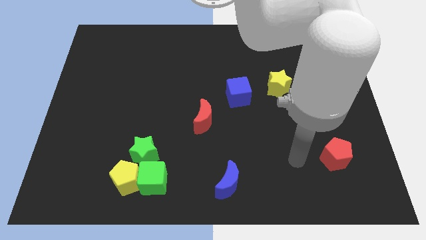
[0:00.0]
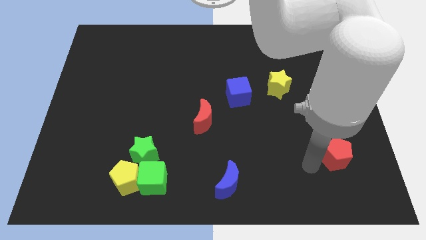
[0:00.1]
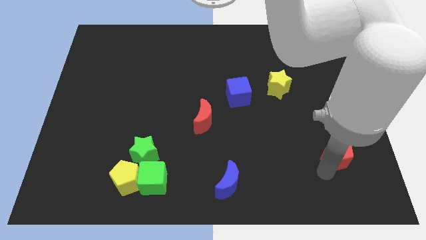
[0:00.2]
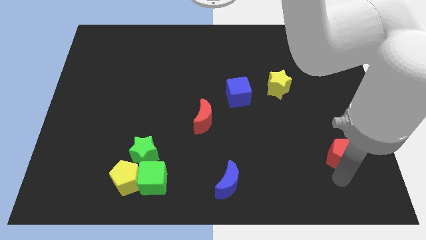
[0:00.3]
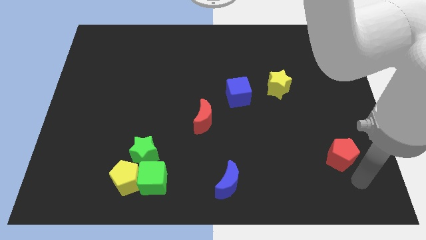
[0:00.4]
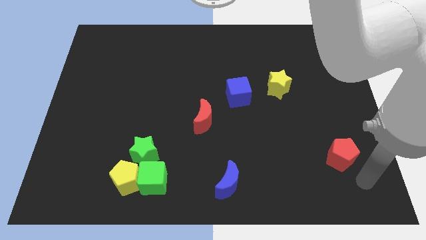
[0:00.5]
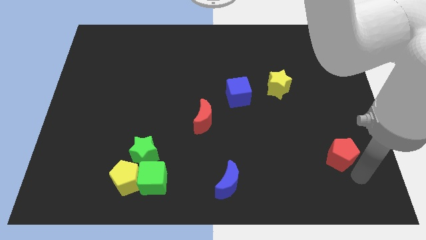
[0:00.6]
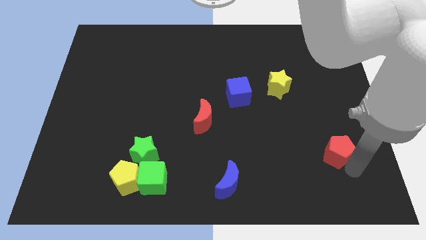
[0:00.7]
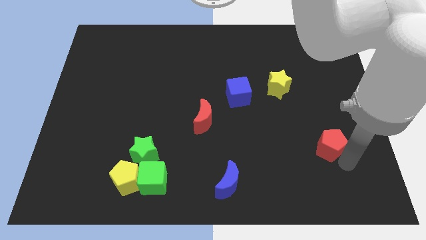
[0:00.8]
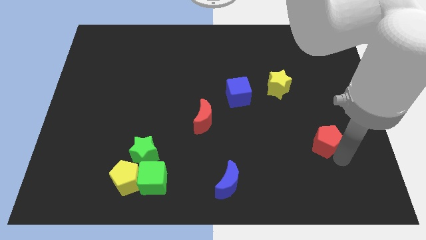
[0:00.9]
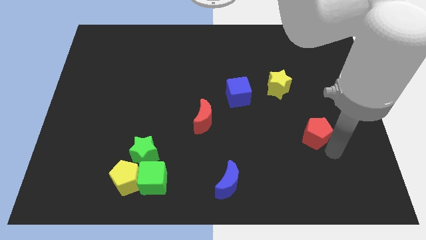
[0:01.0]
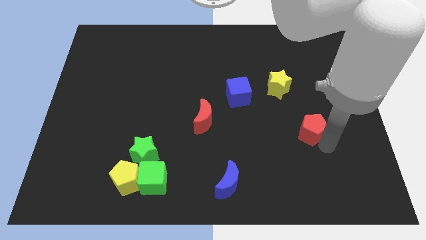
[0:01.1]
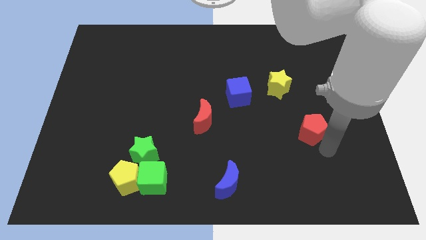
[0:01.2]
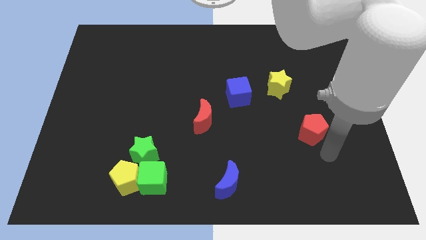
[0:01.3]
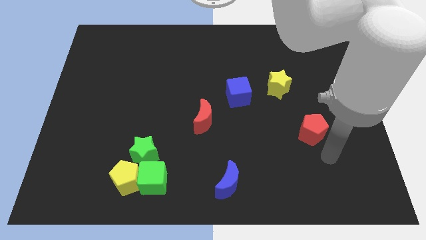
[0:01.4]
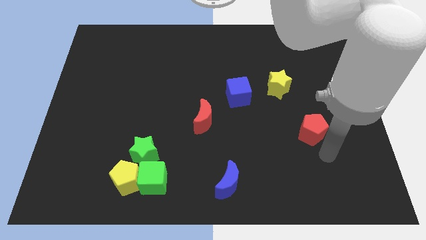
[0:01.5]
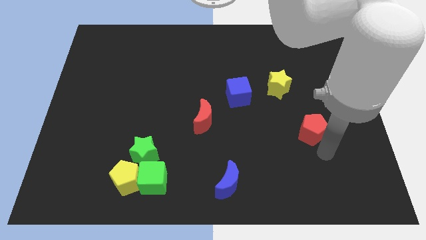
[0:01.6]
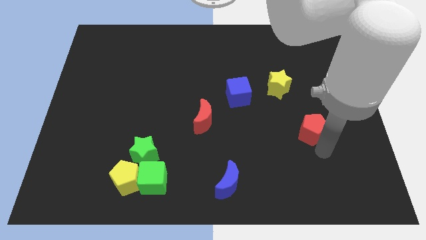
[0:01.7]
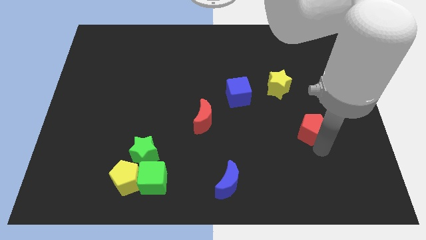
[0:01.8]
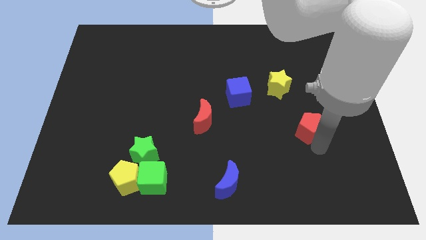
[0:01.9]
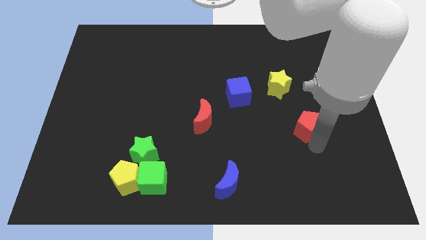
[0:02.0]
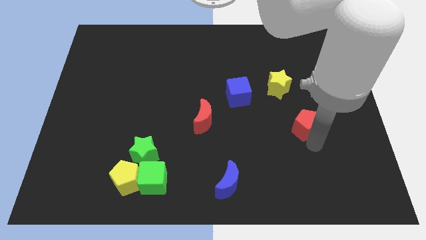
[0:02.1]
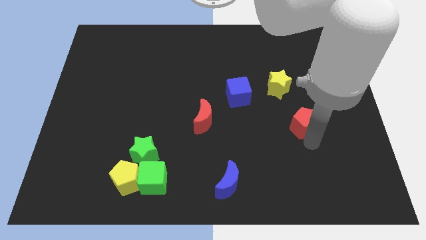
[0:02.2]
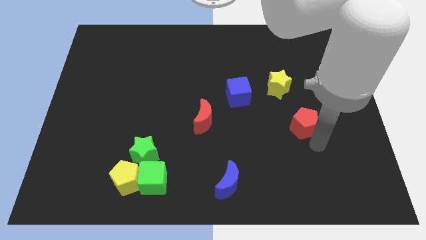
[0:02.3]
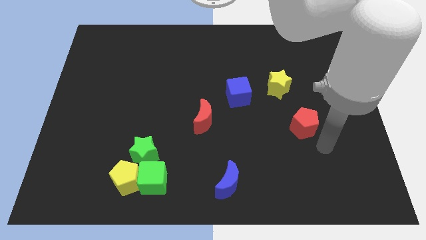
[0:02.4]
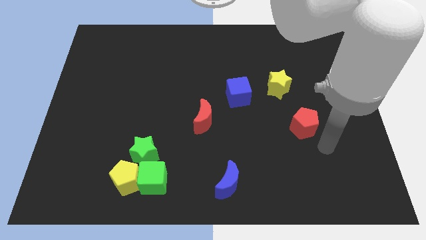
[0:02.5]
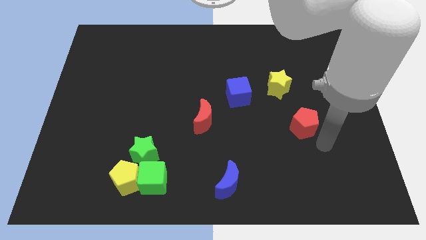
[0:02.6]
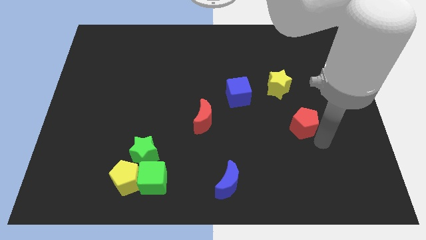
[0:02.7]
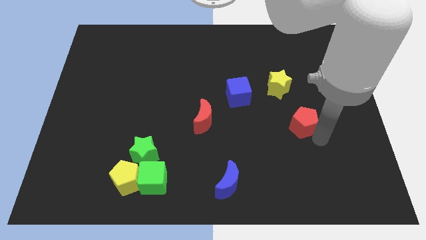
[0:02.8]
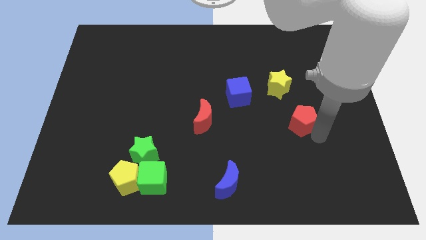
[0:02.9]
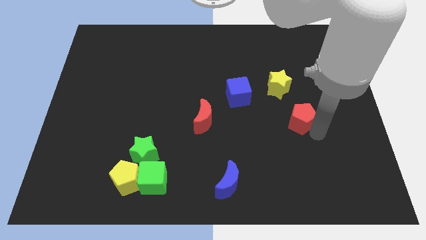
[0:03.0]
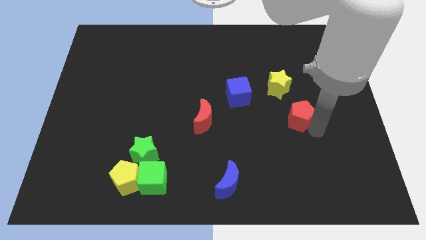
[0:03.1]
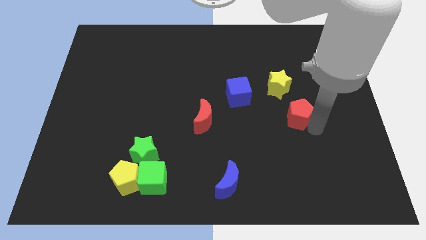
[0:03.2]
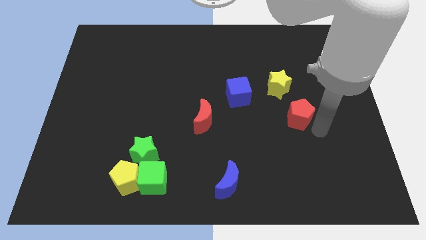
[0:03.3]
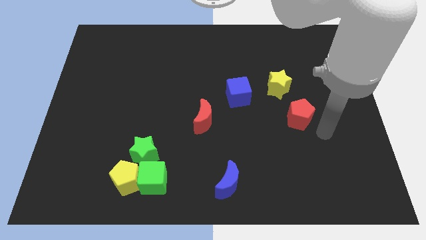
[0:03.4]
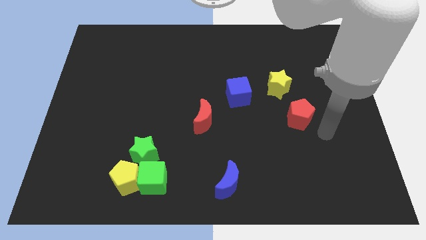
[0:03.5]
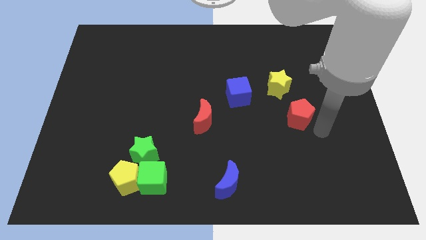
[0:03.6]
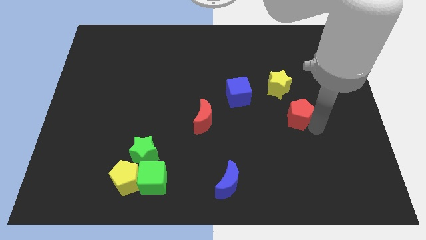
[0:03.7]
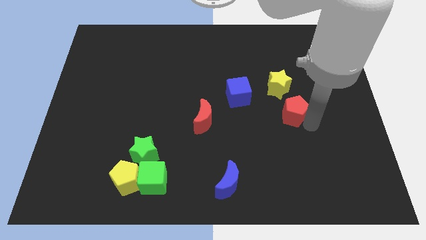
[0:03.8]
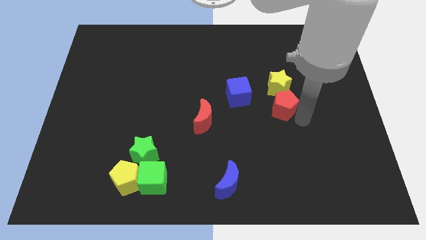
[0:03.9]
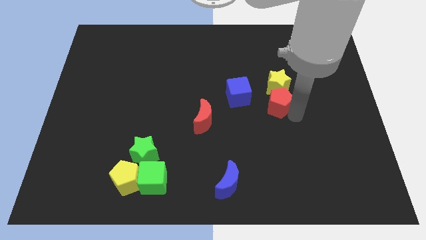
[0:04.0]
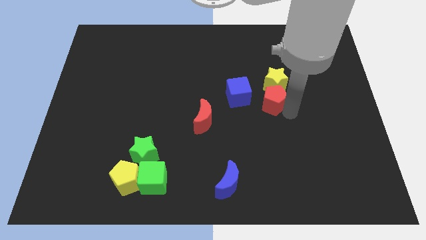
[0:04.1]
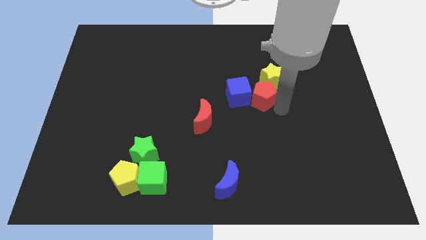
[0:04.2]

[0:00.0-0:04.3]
push the red pentagon diagonally up and left

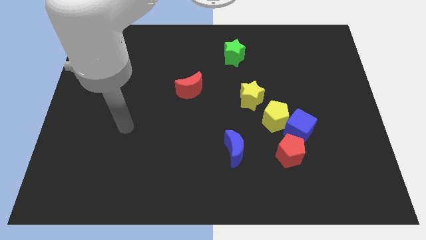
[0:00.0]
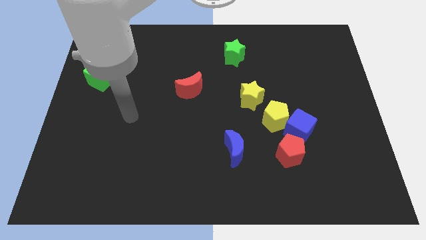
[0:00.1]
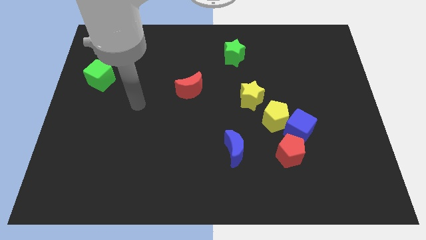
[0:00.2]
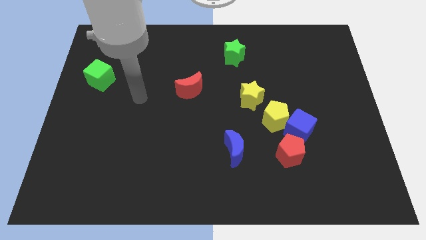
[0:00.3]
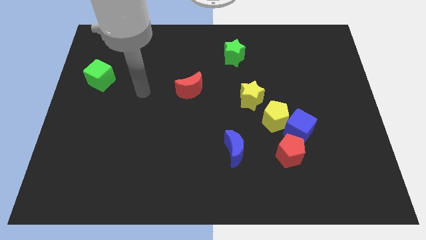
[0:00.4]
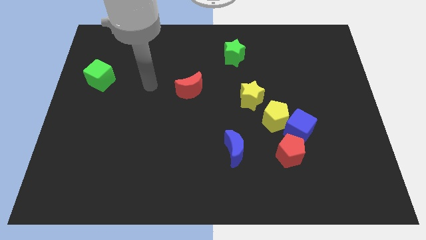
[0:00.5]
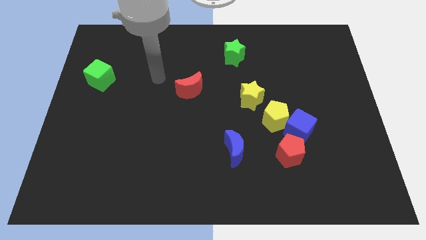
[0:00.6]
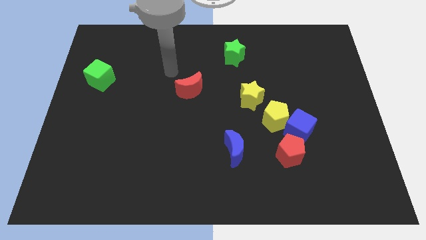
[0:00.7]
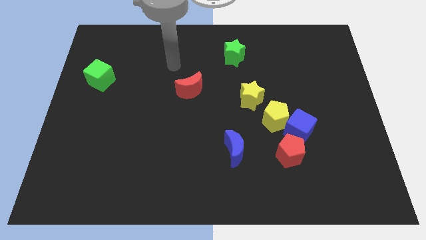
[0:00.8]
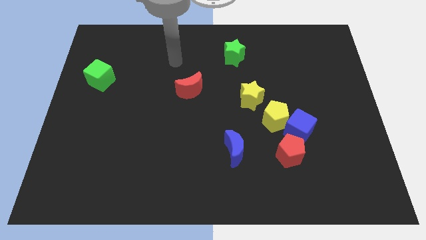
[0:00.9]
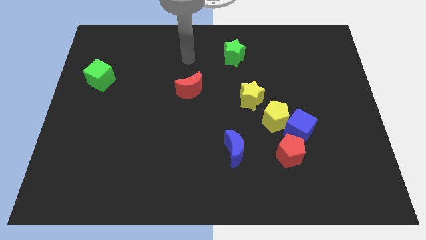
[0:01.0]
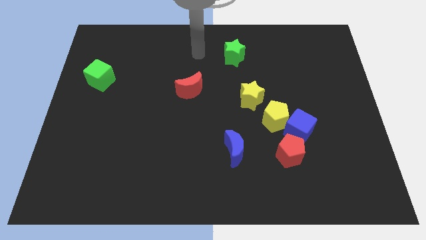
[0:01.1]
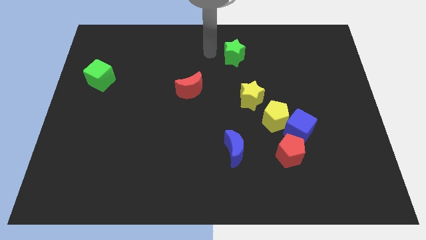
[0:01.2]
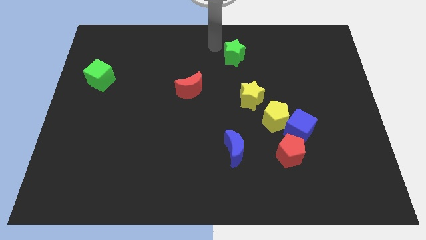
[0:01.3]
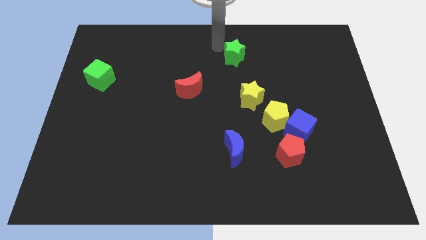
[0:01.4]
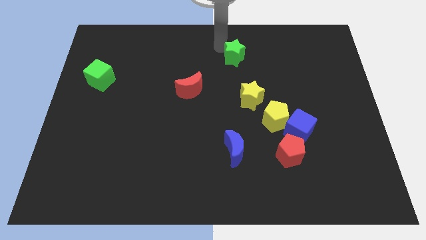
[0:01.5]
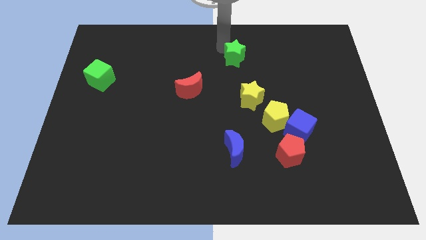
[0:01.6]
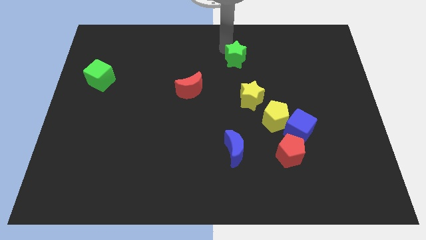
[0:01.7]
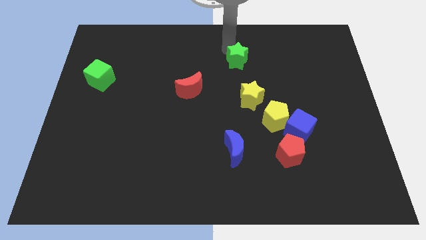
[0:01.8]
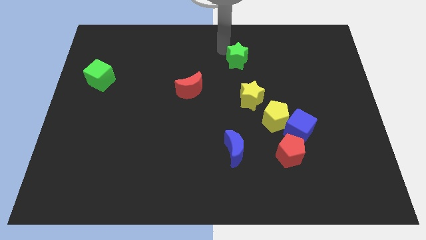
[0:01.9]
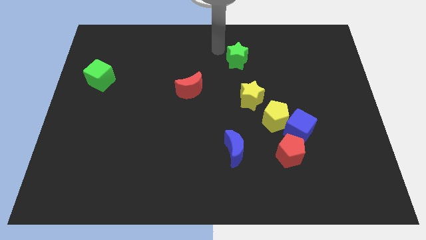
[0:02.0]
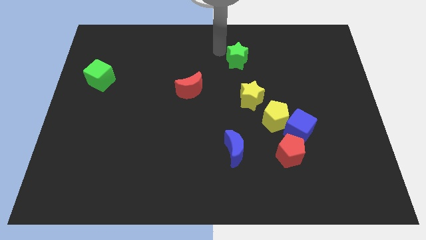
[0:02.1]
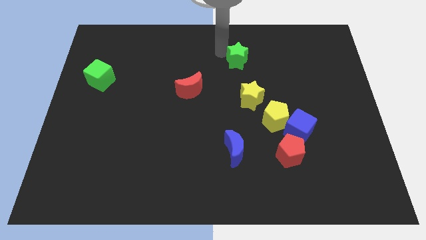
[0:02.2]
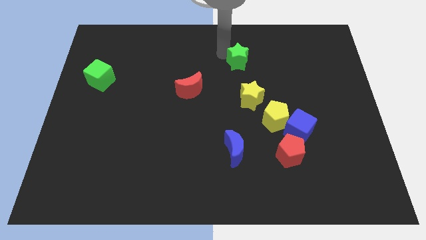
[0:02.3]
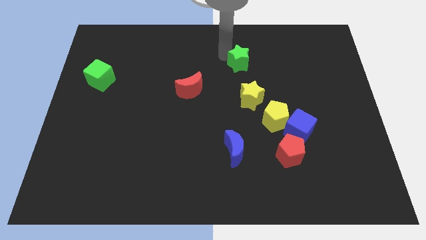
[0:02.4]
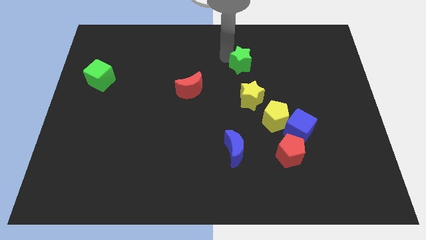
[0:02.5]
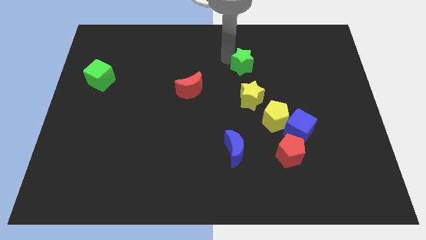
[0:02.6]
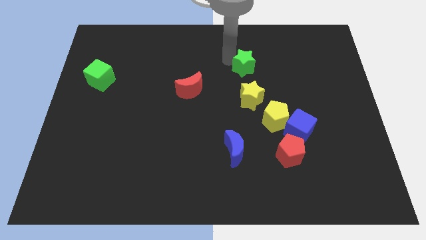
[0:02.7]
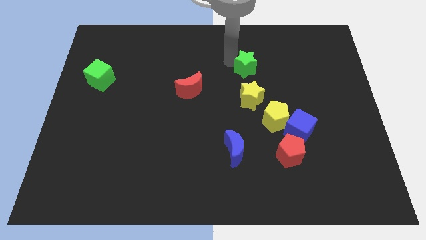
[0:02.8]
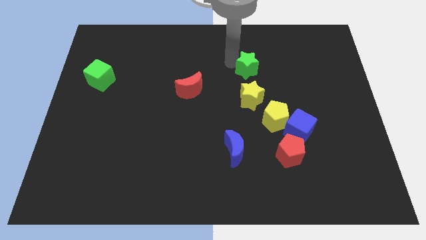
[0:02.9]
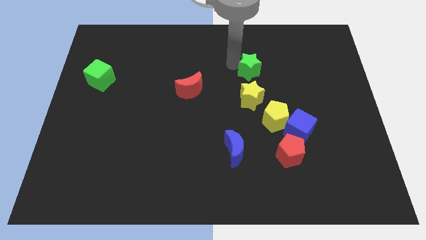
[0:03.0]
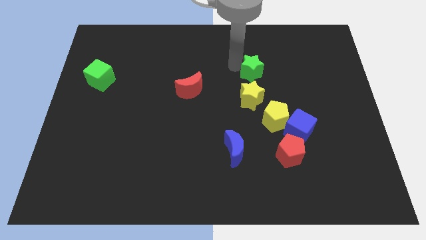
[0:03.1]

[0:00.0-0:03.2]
push the green star downwards and right slightly

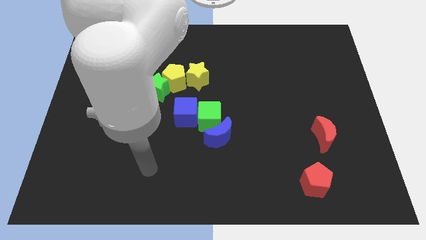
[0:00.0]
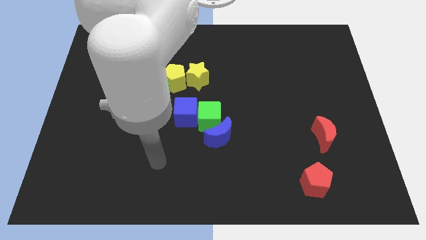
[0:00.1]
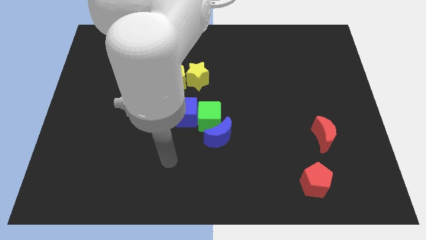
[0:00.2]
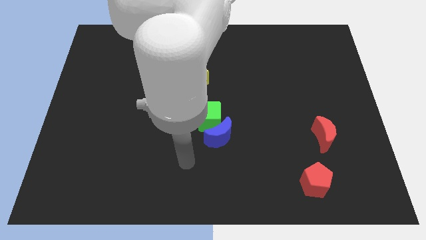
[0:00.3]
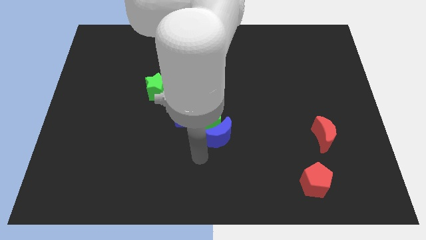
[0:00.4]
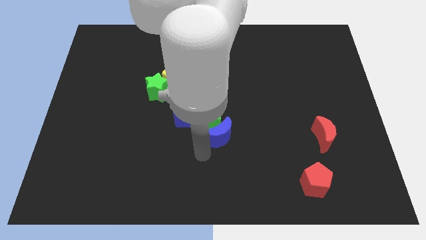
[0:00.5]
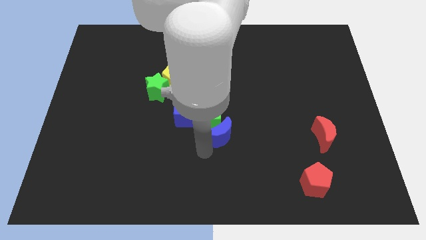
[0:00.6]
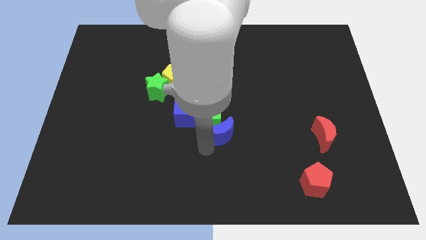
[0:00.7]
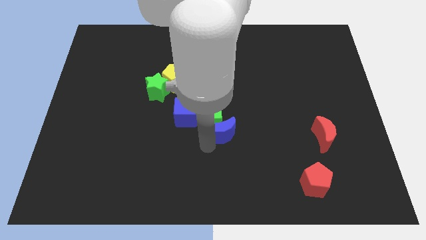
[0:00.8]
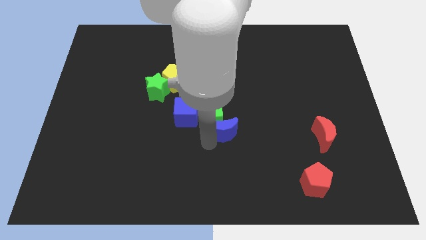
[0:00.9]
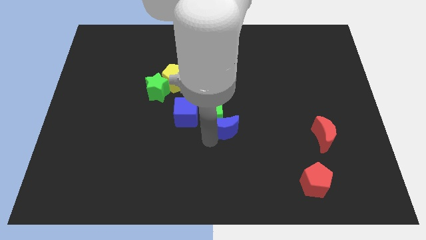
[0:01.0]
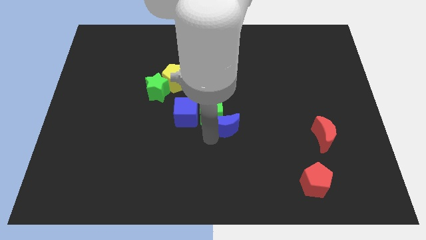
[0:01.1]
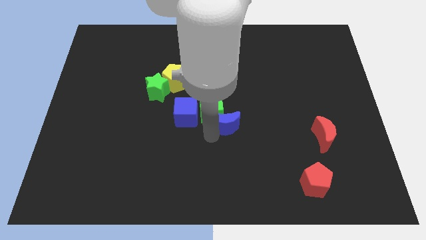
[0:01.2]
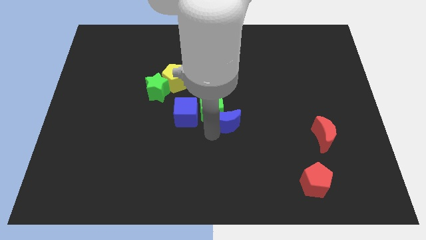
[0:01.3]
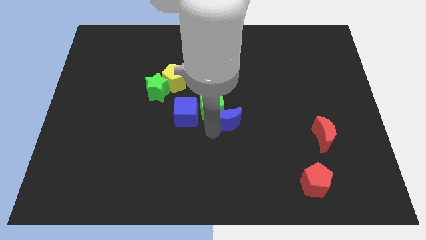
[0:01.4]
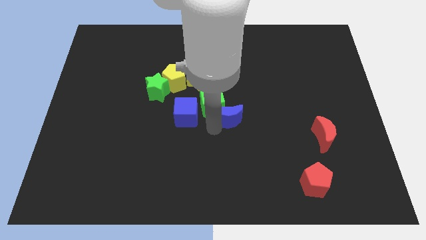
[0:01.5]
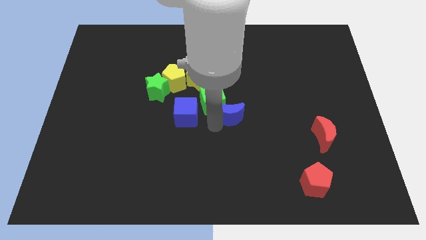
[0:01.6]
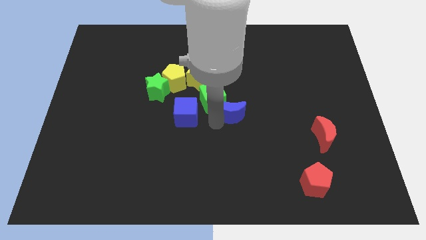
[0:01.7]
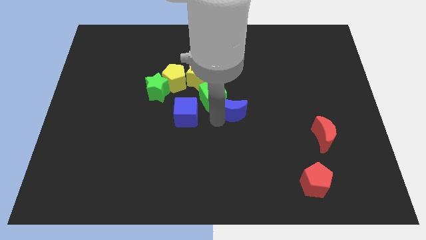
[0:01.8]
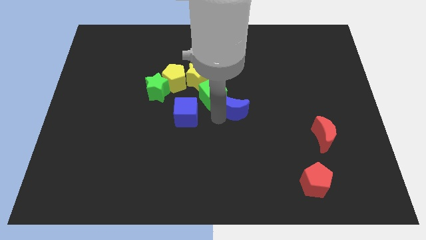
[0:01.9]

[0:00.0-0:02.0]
push the blue moon upwards and then right a little
